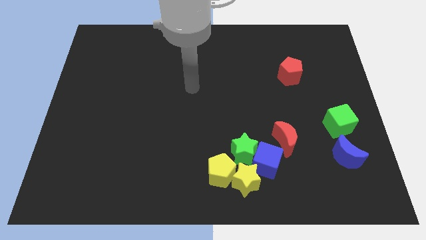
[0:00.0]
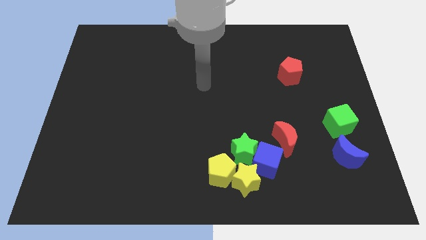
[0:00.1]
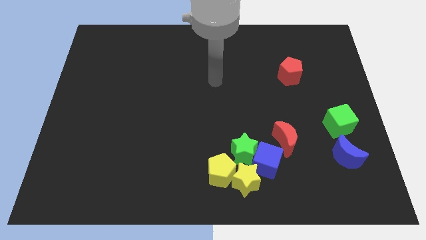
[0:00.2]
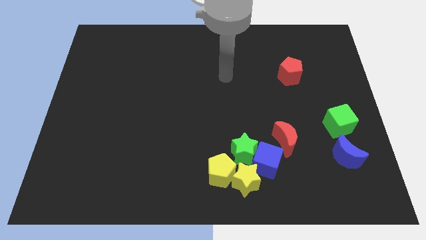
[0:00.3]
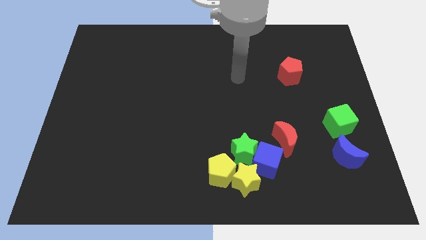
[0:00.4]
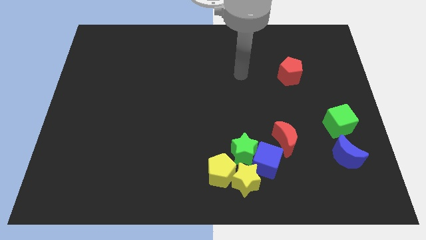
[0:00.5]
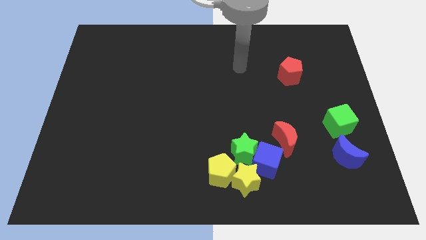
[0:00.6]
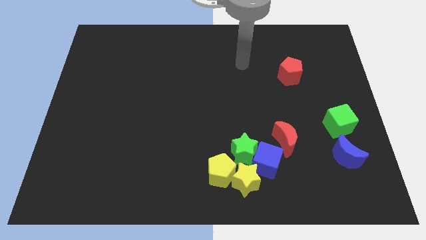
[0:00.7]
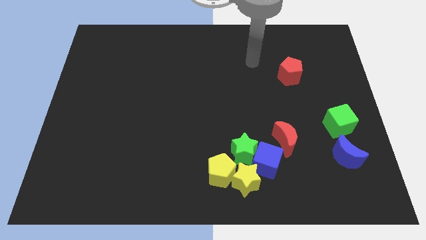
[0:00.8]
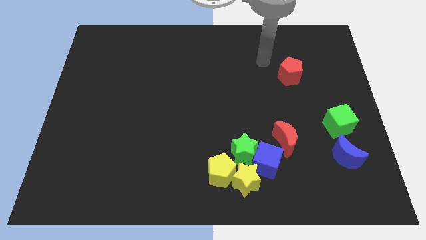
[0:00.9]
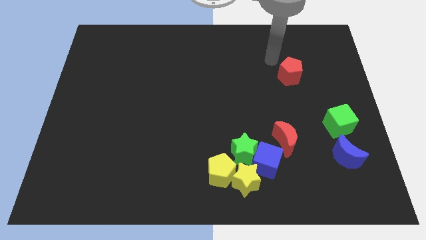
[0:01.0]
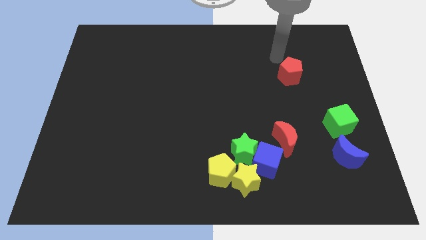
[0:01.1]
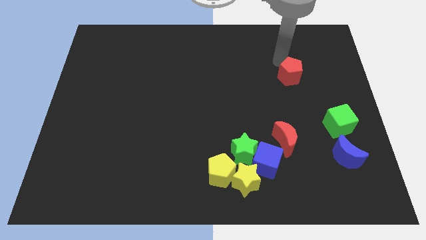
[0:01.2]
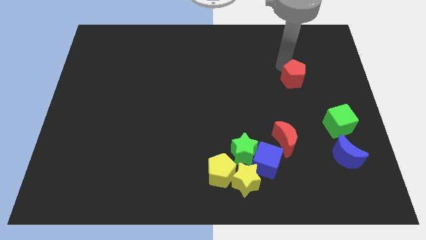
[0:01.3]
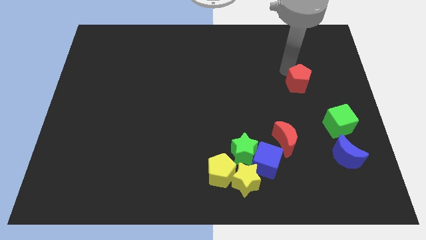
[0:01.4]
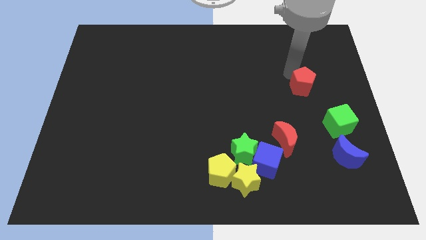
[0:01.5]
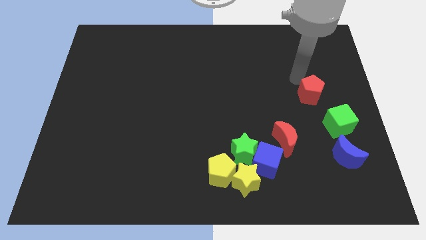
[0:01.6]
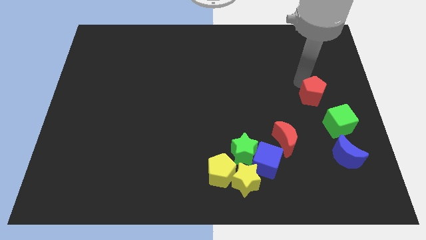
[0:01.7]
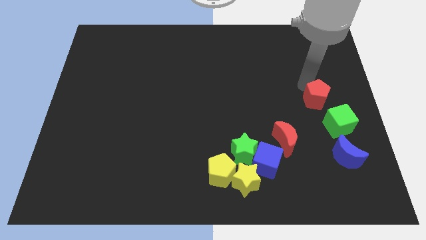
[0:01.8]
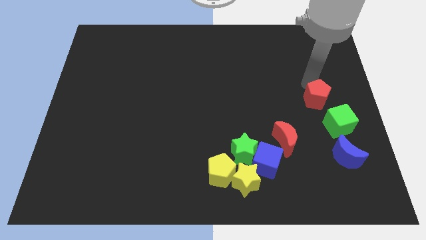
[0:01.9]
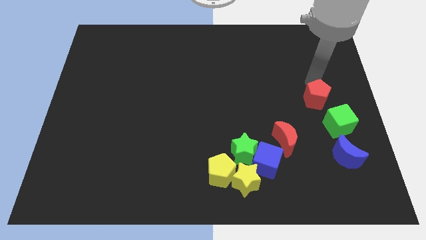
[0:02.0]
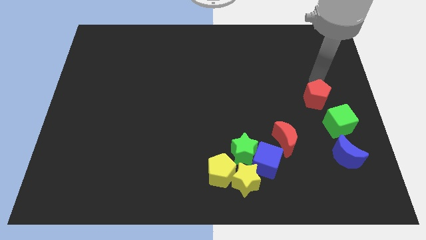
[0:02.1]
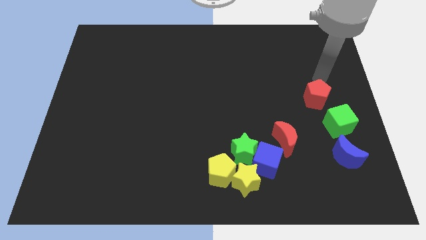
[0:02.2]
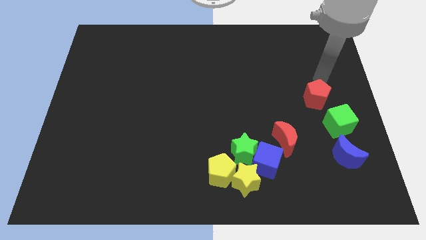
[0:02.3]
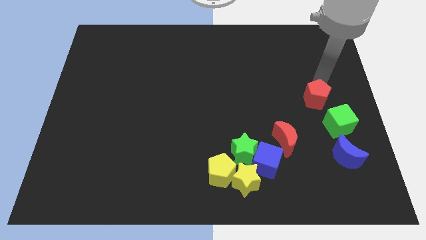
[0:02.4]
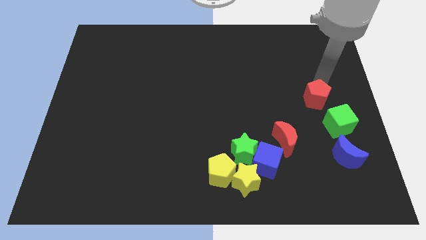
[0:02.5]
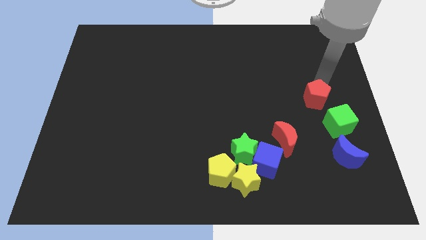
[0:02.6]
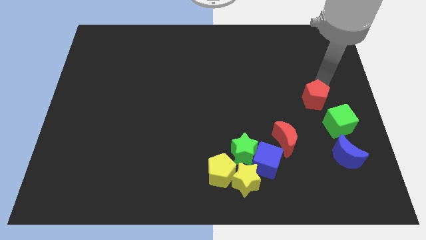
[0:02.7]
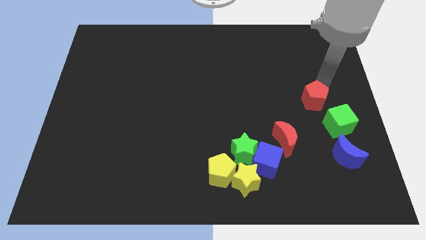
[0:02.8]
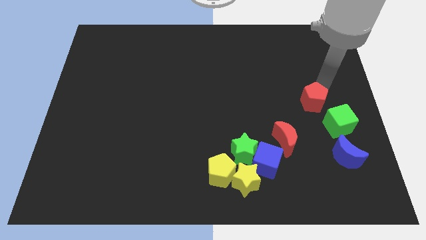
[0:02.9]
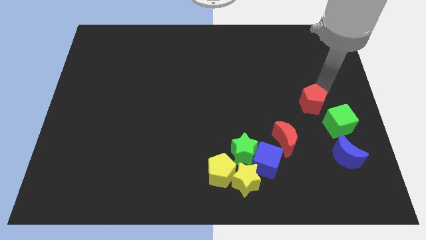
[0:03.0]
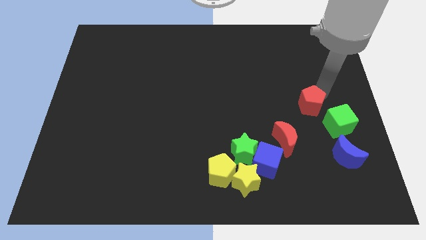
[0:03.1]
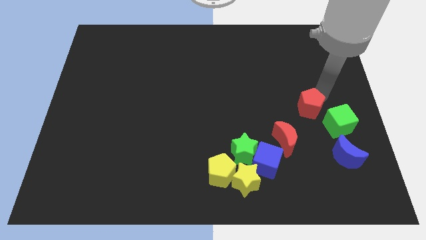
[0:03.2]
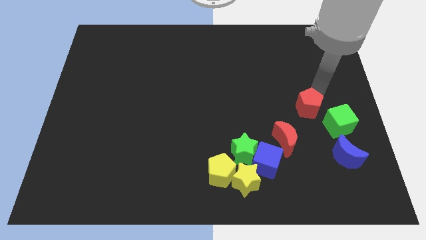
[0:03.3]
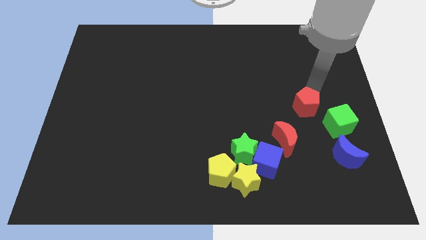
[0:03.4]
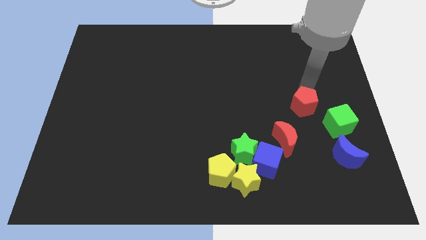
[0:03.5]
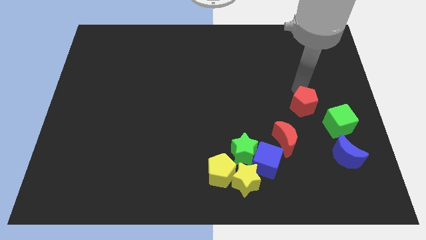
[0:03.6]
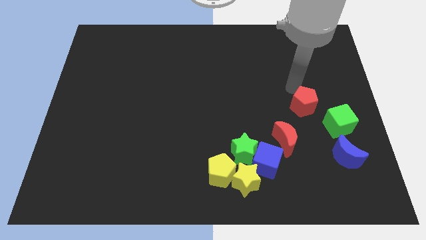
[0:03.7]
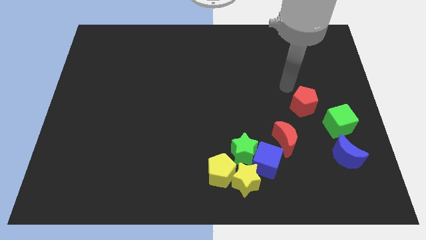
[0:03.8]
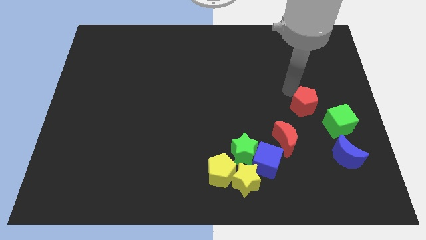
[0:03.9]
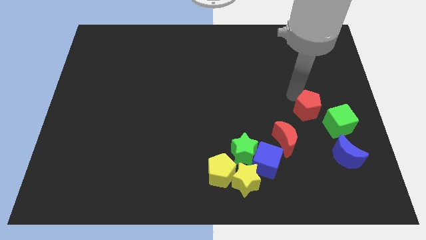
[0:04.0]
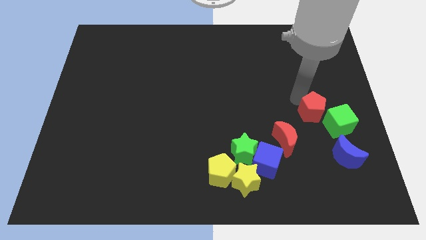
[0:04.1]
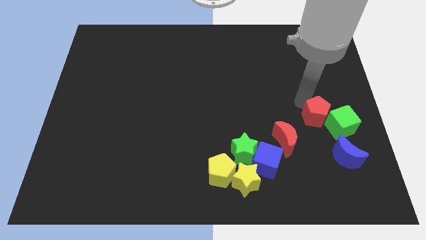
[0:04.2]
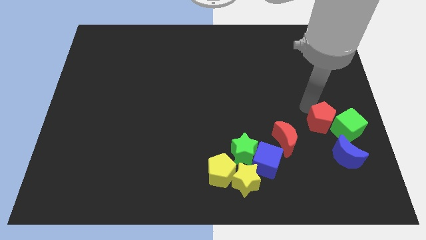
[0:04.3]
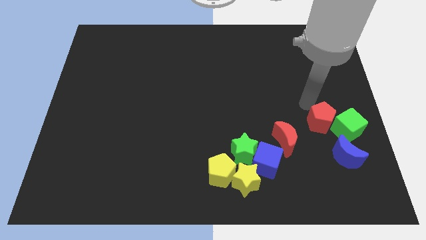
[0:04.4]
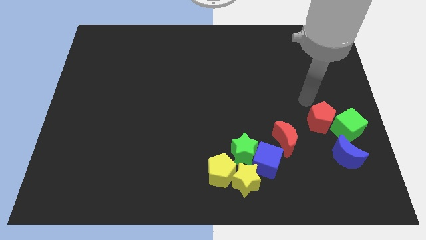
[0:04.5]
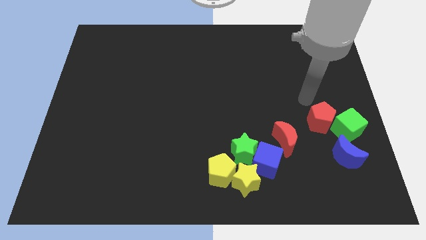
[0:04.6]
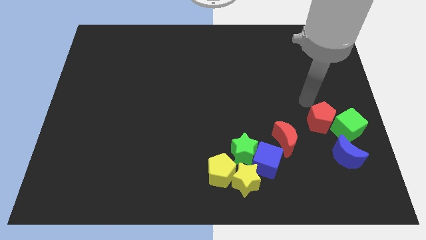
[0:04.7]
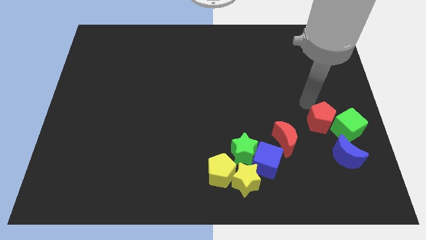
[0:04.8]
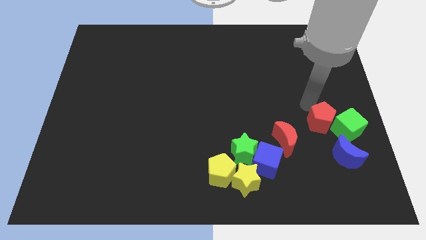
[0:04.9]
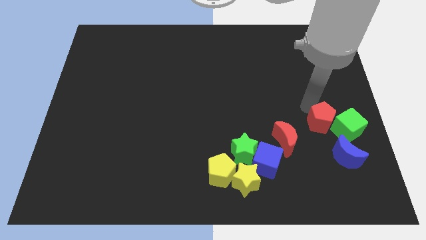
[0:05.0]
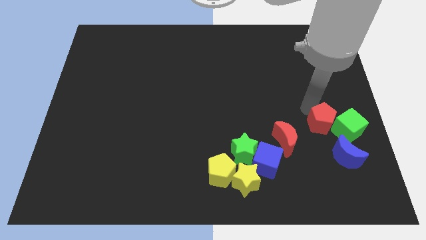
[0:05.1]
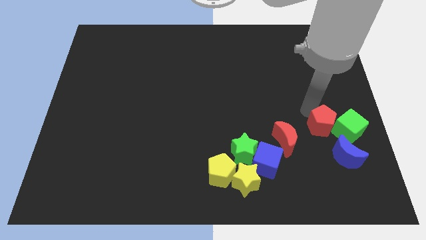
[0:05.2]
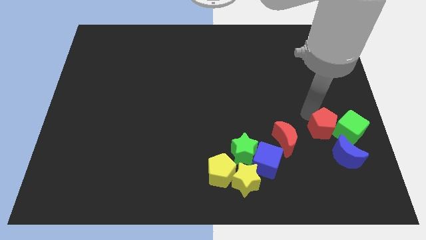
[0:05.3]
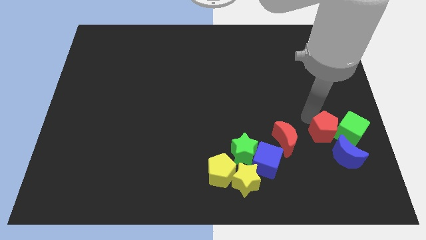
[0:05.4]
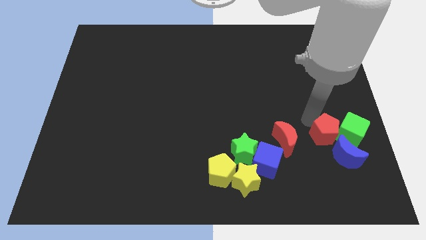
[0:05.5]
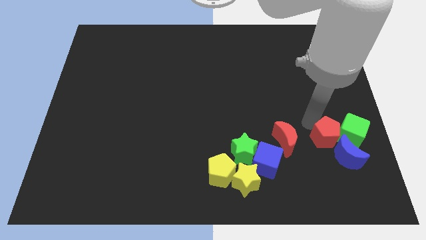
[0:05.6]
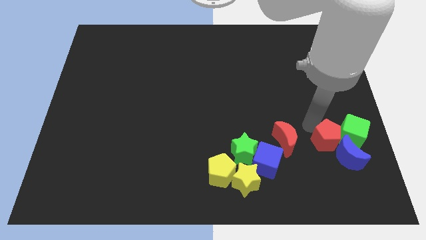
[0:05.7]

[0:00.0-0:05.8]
push the red pentagon to the blue moon

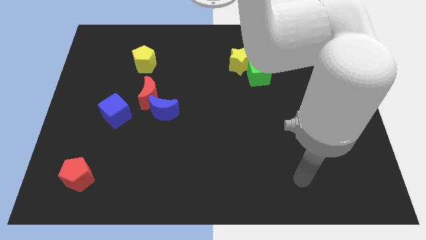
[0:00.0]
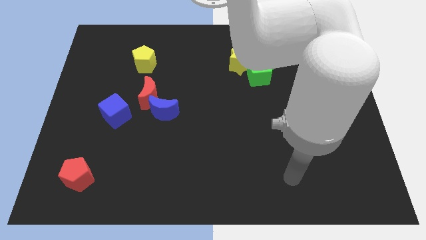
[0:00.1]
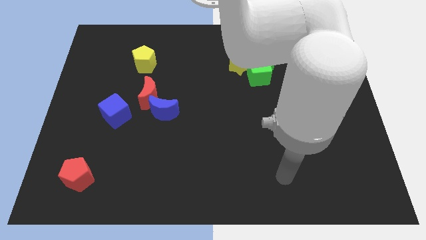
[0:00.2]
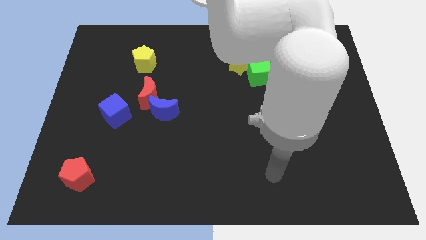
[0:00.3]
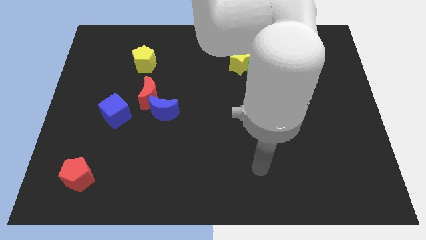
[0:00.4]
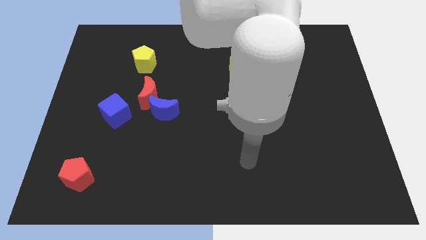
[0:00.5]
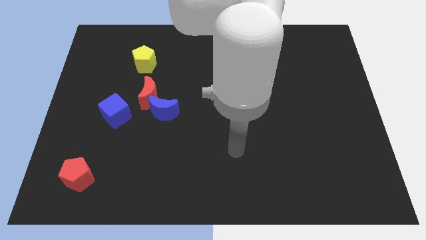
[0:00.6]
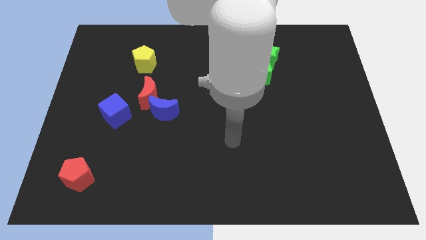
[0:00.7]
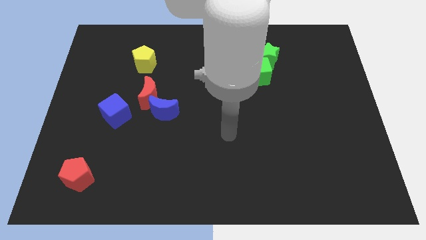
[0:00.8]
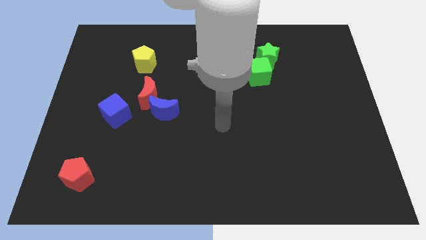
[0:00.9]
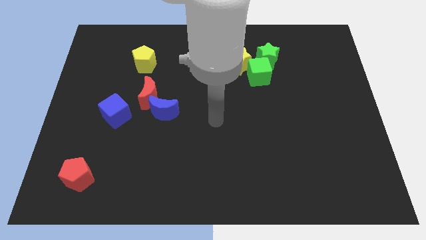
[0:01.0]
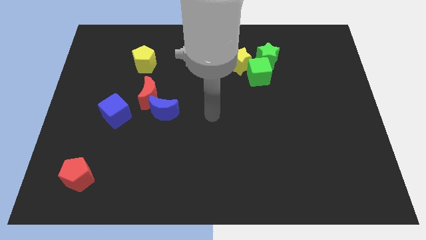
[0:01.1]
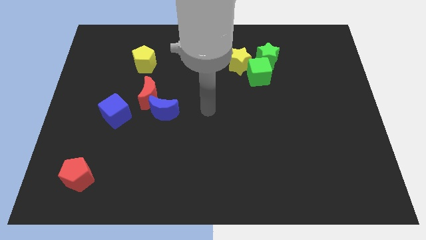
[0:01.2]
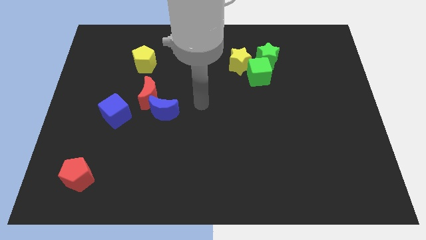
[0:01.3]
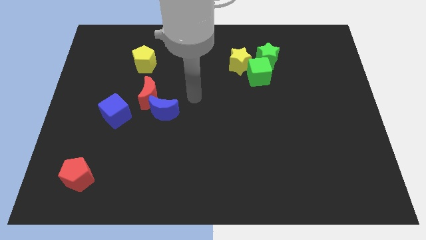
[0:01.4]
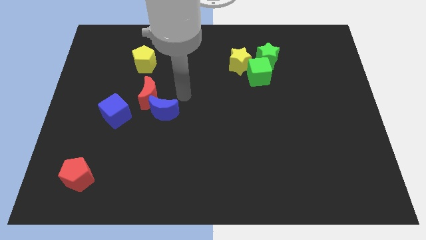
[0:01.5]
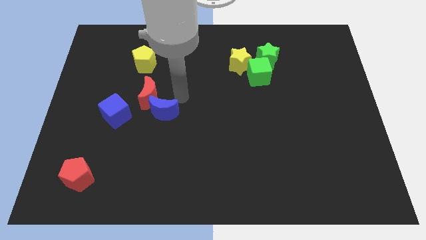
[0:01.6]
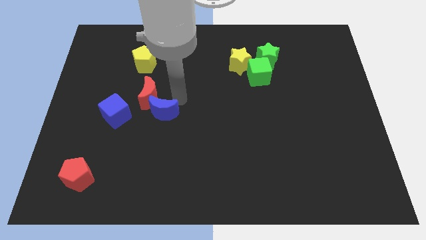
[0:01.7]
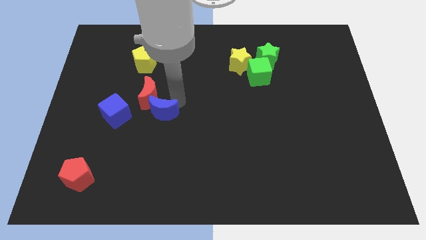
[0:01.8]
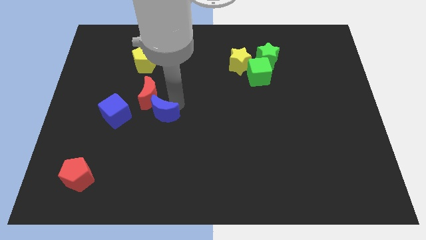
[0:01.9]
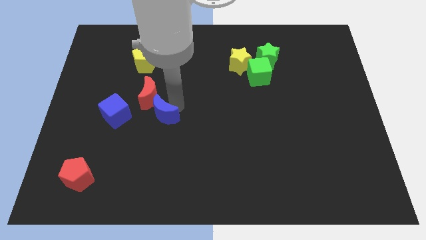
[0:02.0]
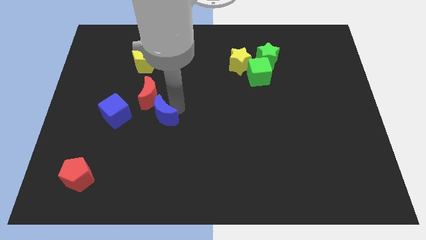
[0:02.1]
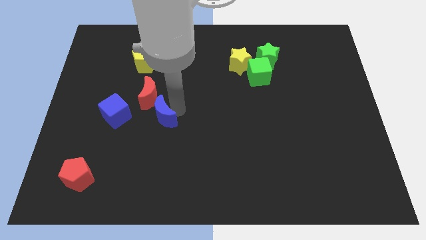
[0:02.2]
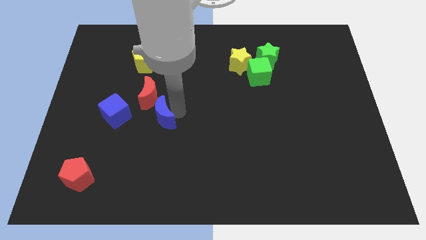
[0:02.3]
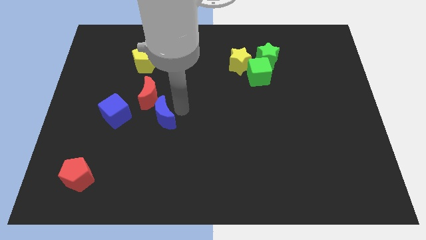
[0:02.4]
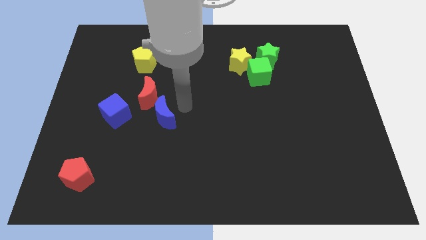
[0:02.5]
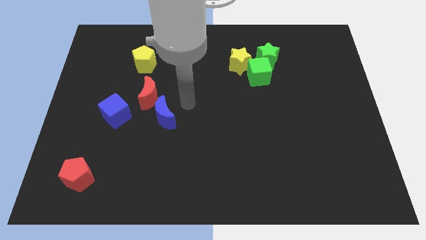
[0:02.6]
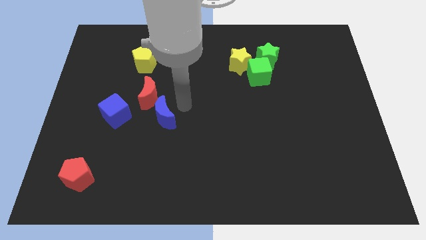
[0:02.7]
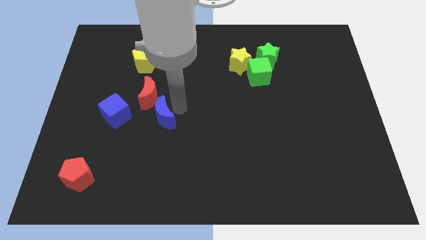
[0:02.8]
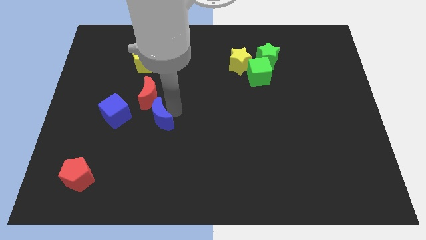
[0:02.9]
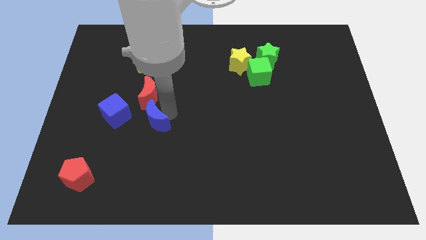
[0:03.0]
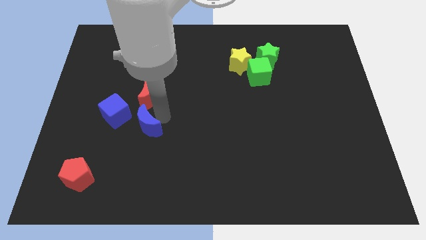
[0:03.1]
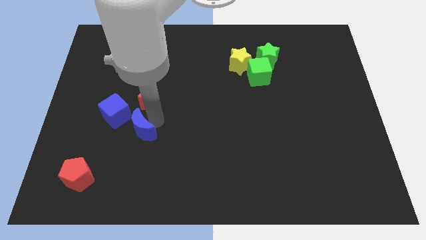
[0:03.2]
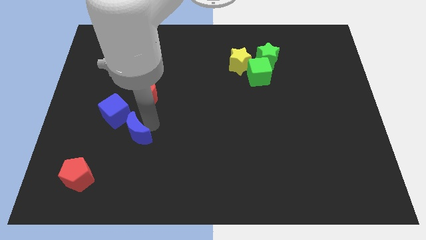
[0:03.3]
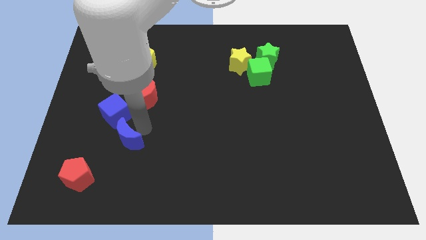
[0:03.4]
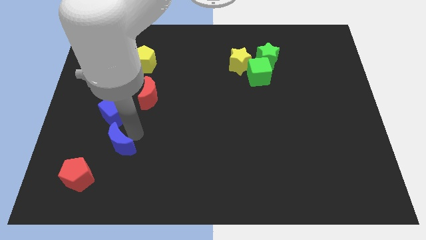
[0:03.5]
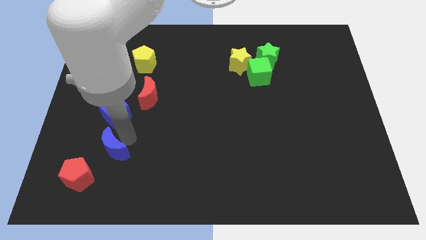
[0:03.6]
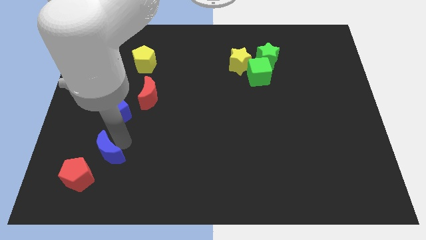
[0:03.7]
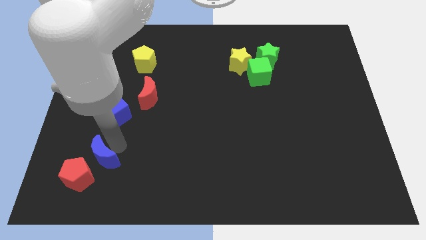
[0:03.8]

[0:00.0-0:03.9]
slide the blue moon towards the red pentagon
